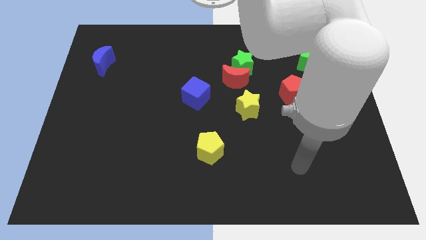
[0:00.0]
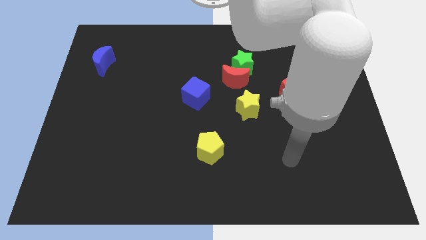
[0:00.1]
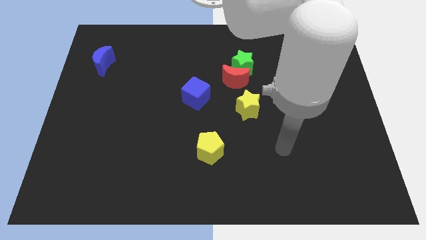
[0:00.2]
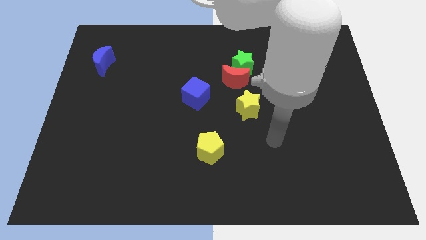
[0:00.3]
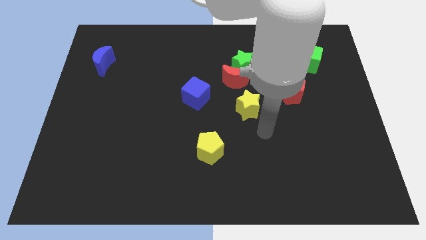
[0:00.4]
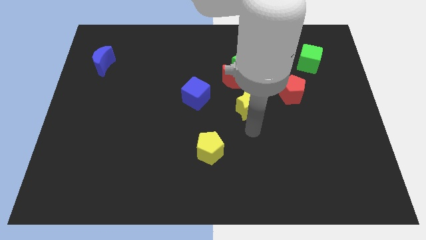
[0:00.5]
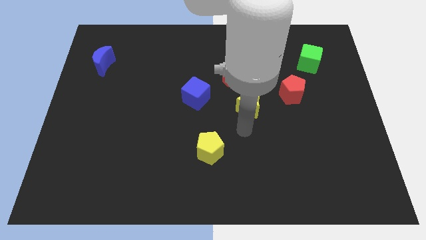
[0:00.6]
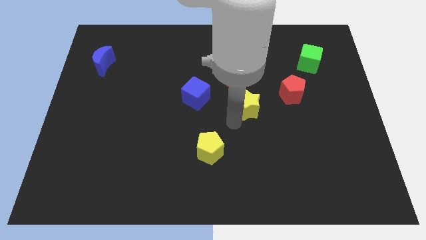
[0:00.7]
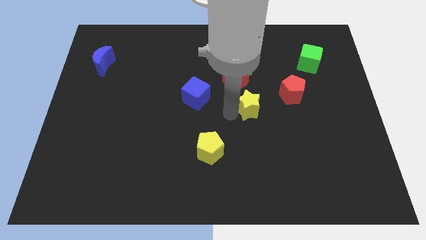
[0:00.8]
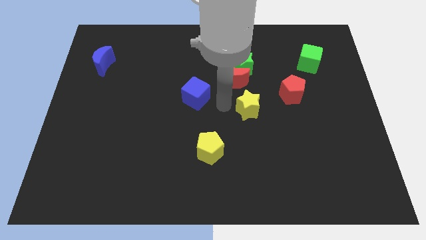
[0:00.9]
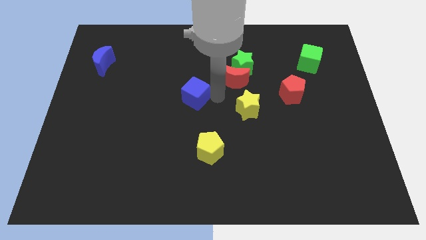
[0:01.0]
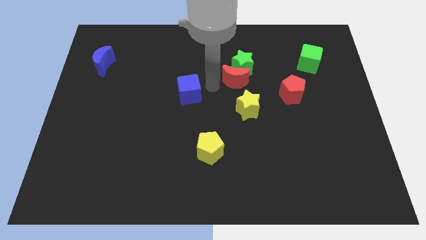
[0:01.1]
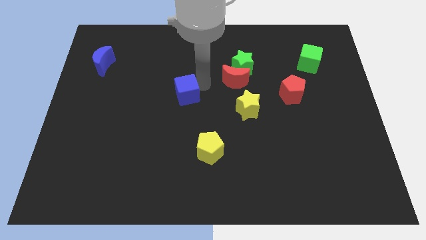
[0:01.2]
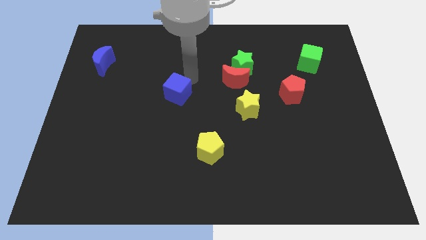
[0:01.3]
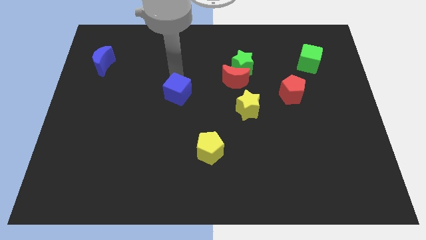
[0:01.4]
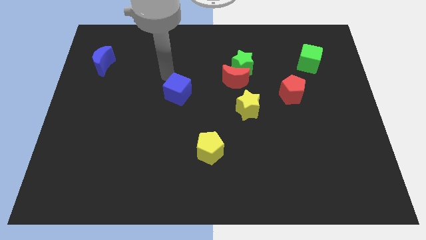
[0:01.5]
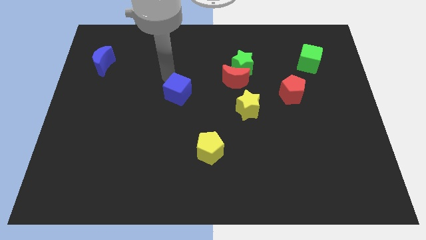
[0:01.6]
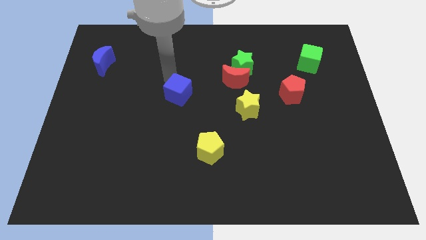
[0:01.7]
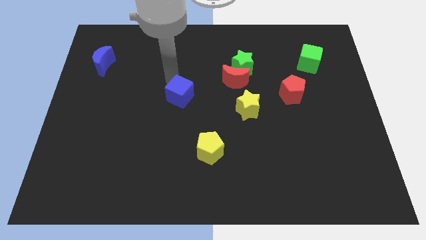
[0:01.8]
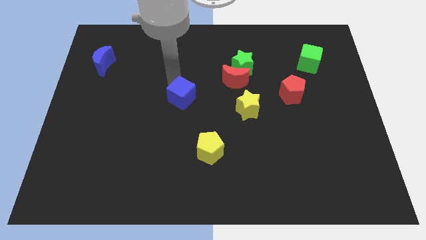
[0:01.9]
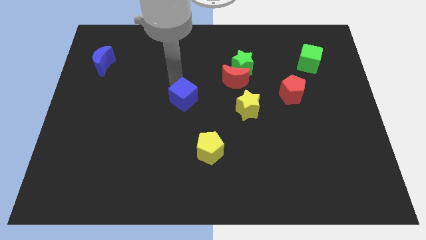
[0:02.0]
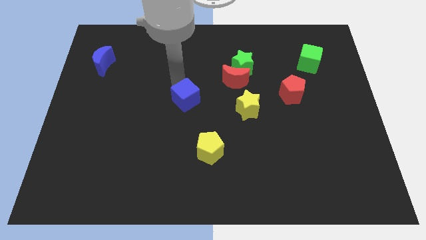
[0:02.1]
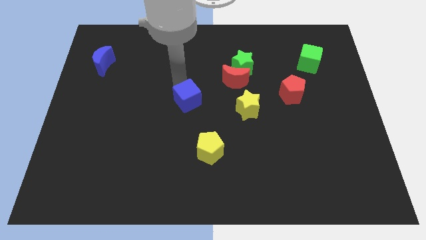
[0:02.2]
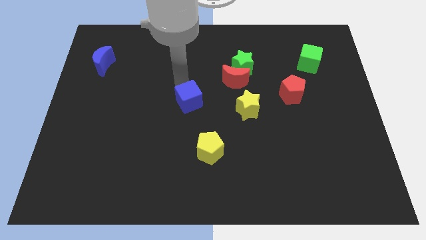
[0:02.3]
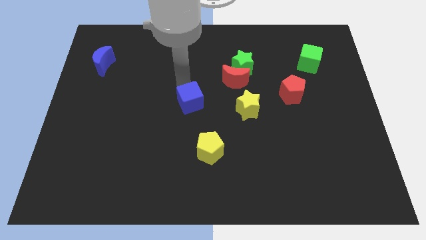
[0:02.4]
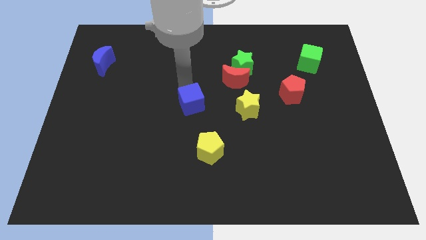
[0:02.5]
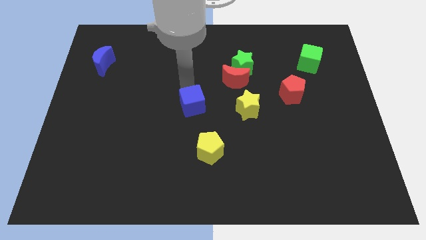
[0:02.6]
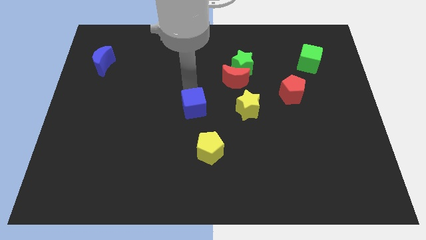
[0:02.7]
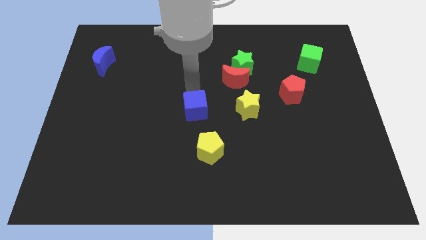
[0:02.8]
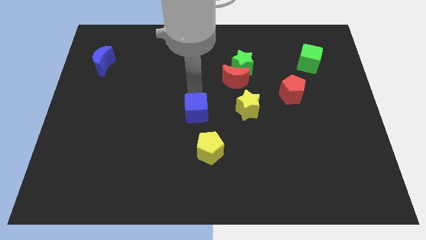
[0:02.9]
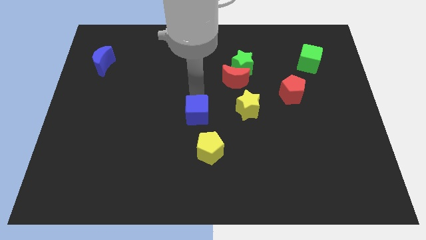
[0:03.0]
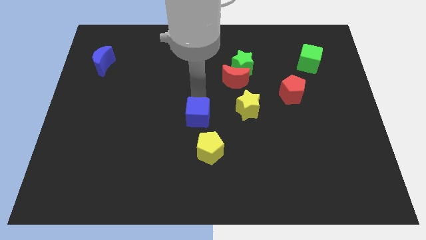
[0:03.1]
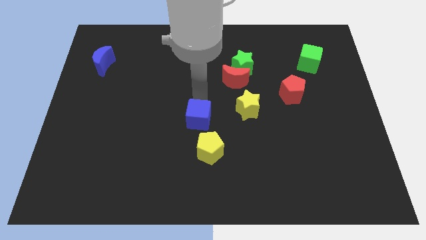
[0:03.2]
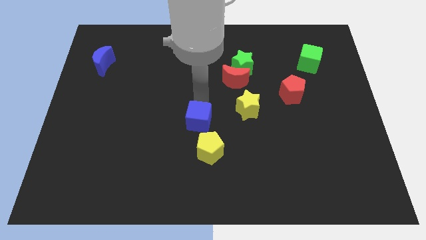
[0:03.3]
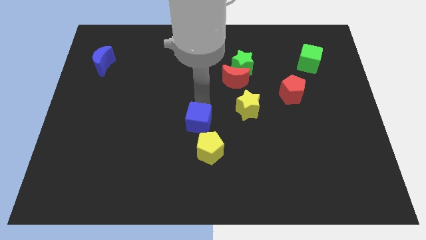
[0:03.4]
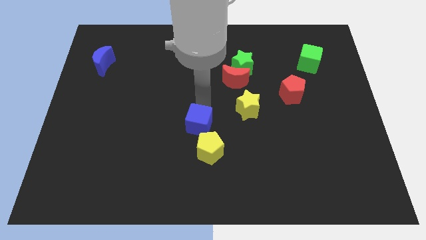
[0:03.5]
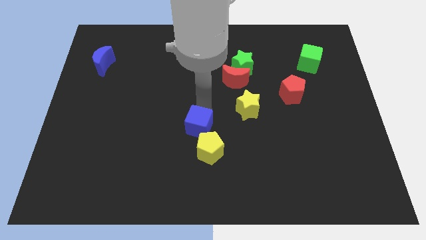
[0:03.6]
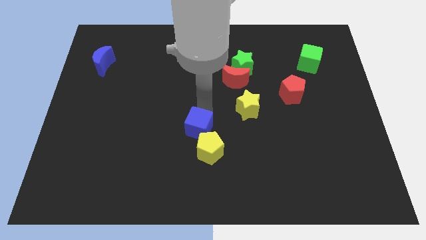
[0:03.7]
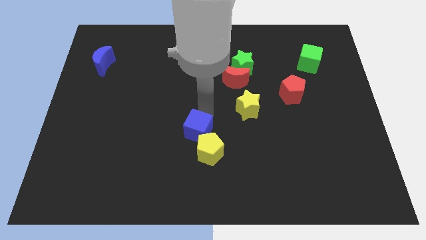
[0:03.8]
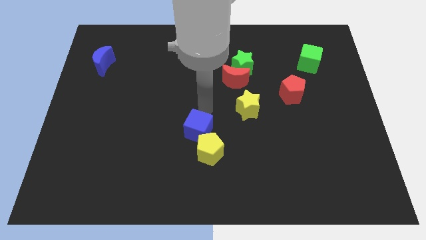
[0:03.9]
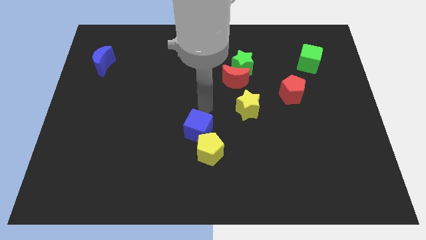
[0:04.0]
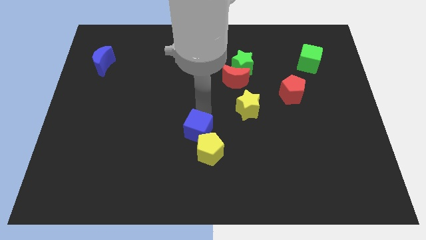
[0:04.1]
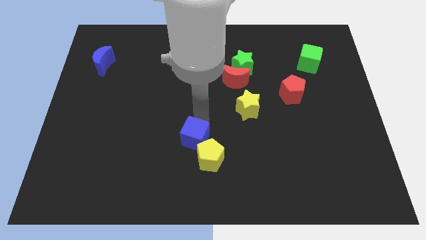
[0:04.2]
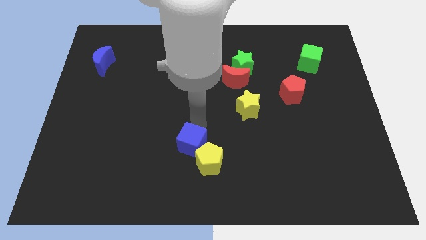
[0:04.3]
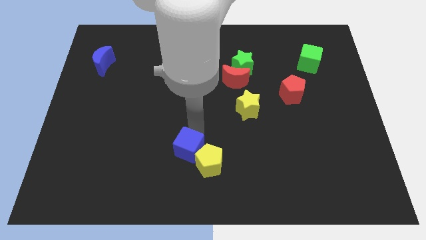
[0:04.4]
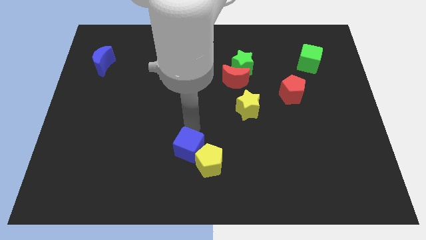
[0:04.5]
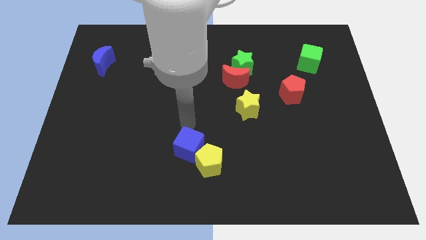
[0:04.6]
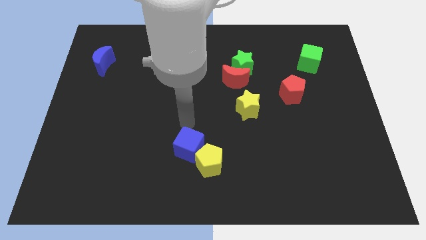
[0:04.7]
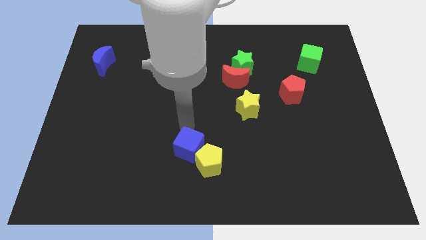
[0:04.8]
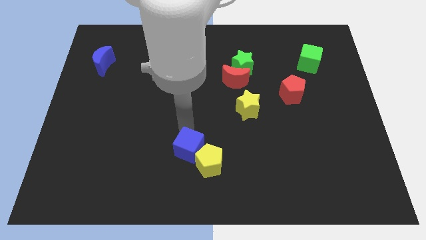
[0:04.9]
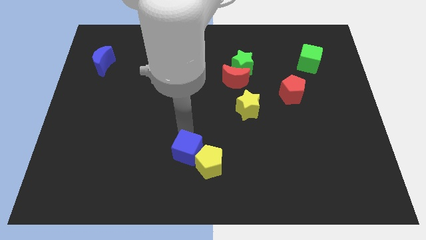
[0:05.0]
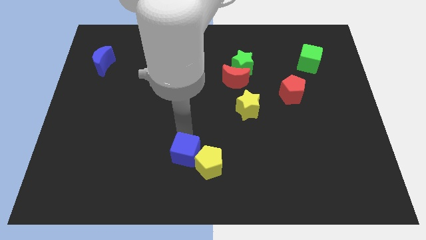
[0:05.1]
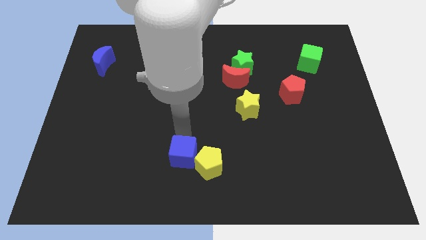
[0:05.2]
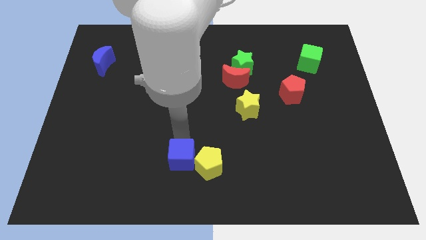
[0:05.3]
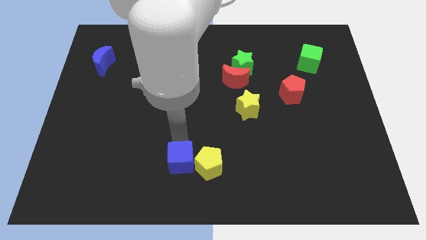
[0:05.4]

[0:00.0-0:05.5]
put the blue cube to the bottom side
